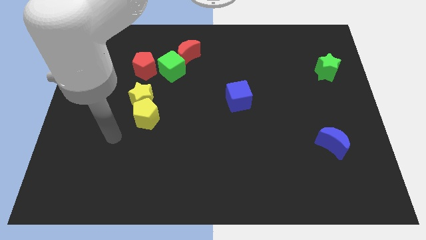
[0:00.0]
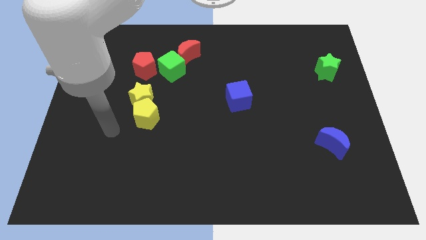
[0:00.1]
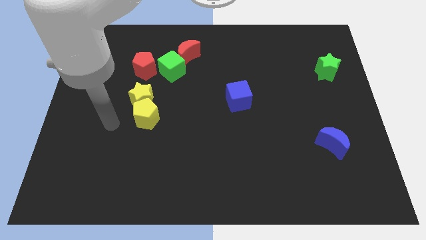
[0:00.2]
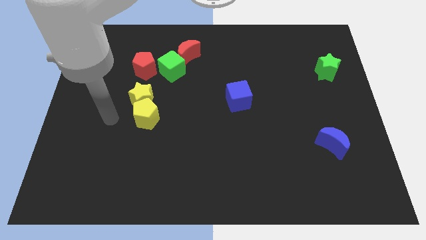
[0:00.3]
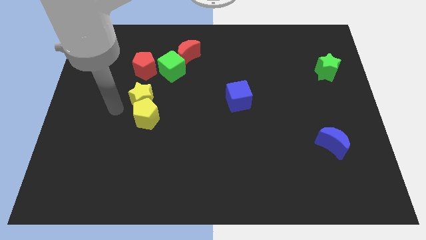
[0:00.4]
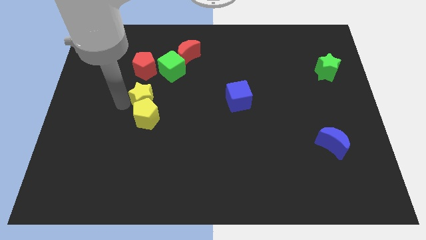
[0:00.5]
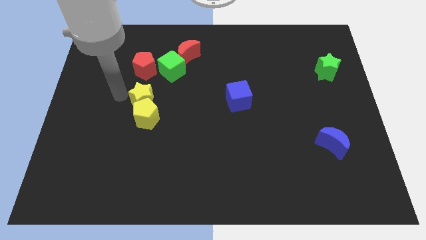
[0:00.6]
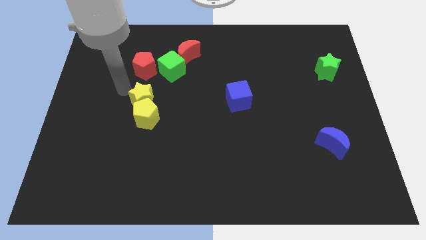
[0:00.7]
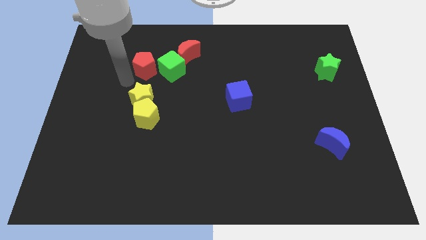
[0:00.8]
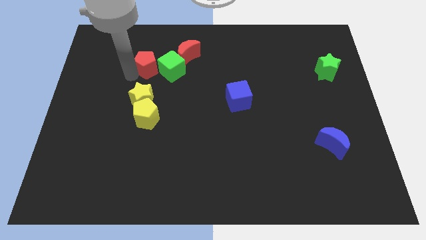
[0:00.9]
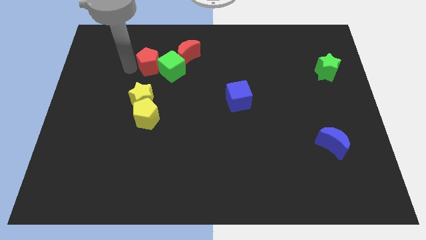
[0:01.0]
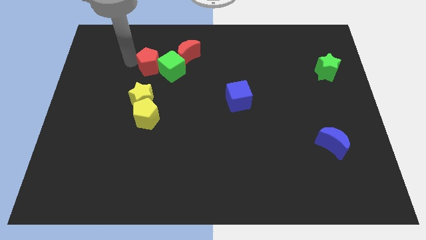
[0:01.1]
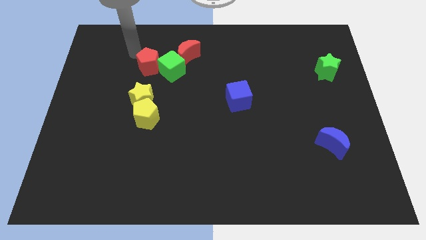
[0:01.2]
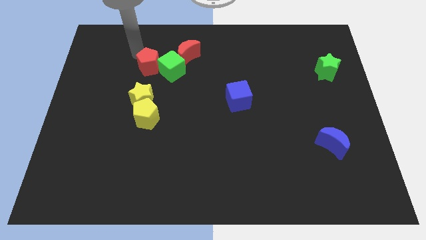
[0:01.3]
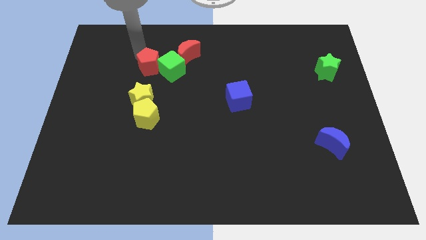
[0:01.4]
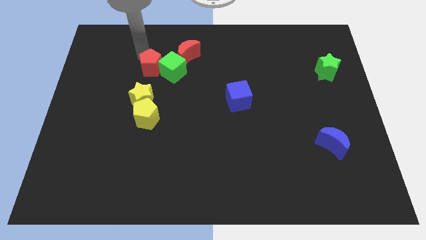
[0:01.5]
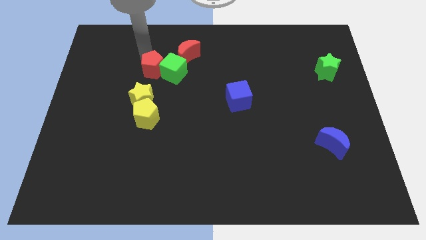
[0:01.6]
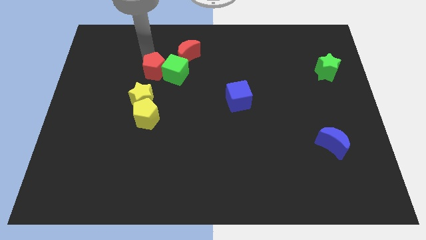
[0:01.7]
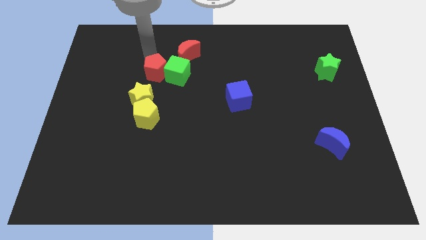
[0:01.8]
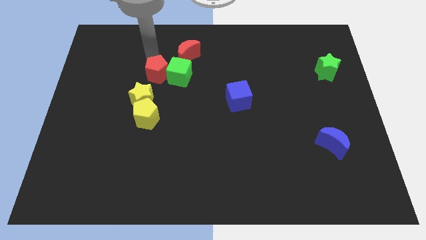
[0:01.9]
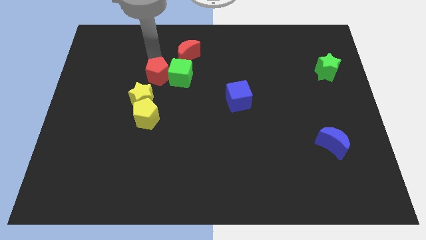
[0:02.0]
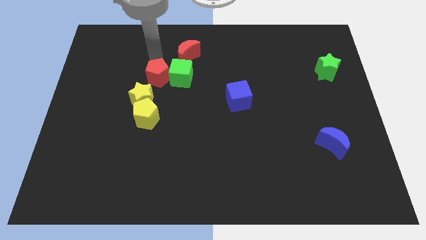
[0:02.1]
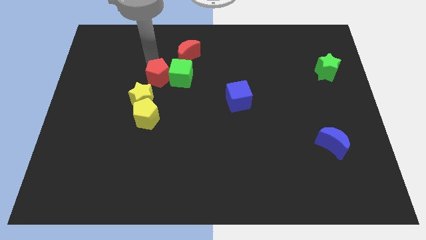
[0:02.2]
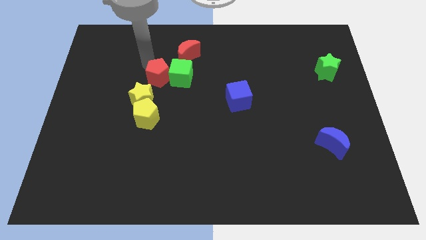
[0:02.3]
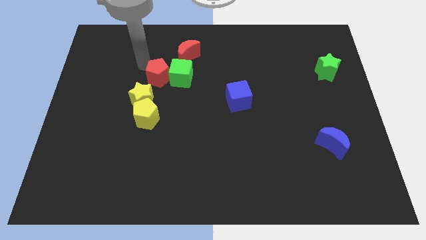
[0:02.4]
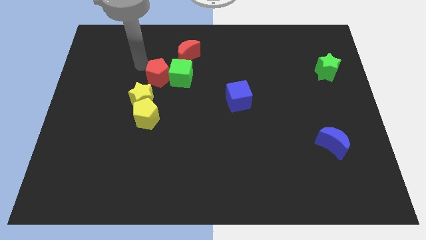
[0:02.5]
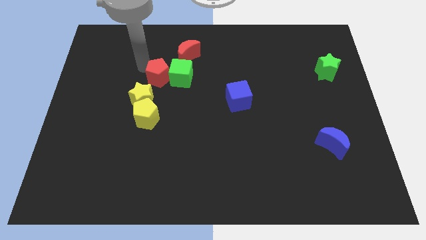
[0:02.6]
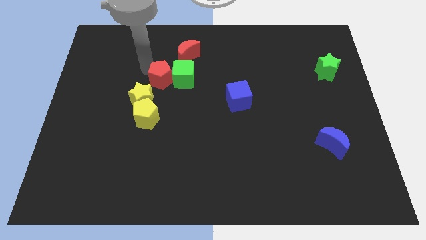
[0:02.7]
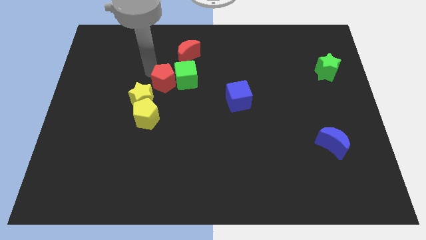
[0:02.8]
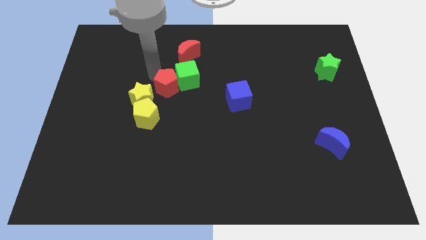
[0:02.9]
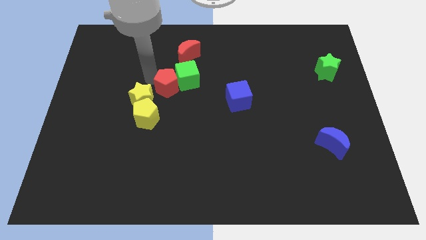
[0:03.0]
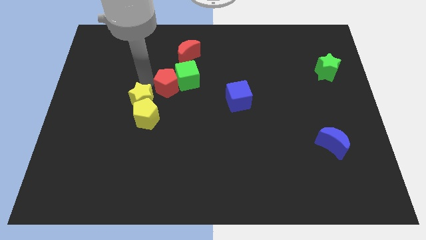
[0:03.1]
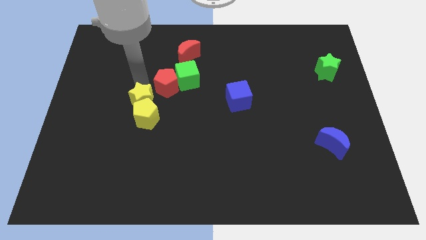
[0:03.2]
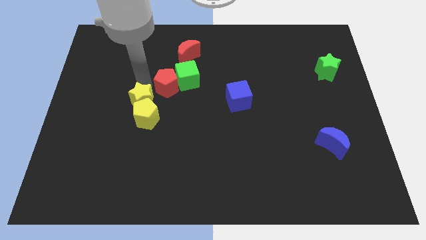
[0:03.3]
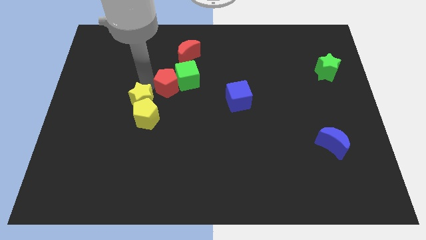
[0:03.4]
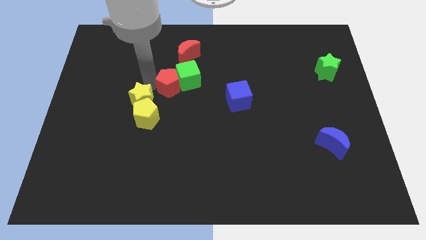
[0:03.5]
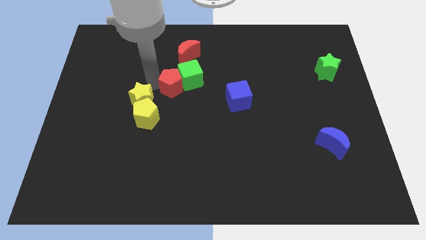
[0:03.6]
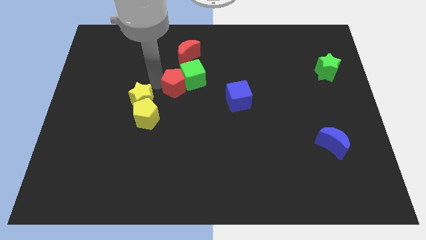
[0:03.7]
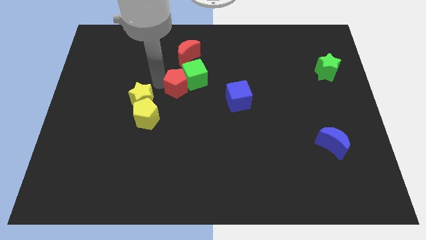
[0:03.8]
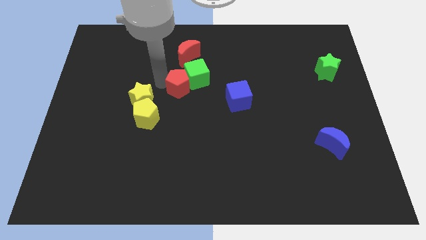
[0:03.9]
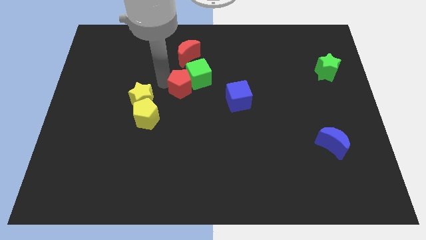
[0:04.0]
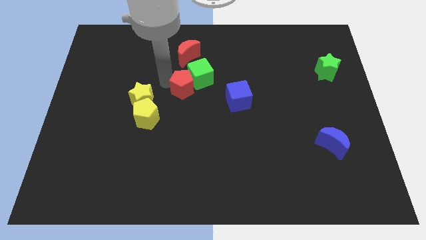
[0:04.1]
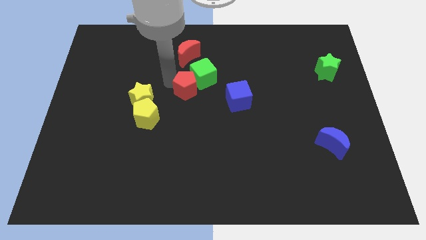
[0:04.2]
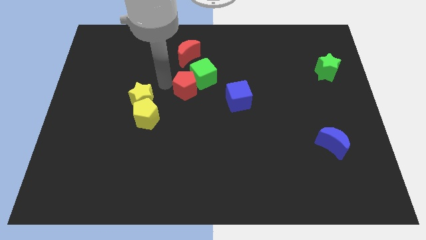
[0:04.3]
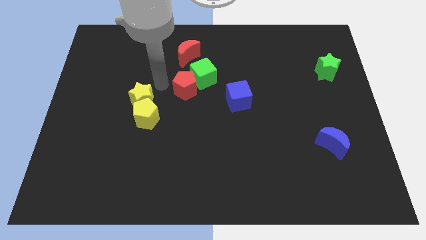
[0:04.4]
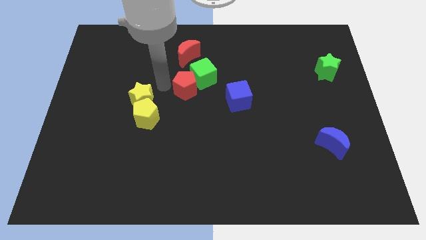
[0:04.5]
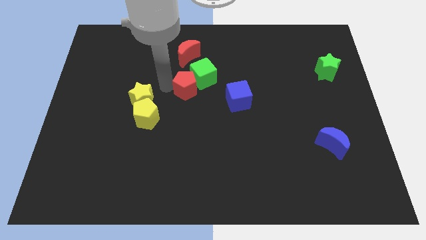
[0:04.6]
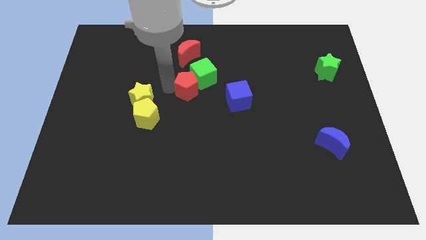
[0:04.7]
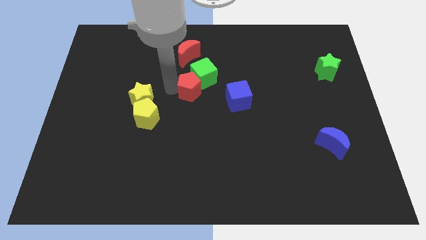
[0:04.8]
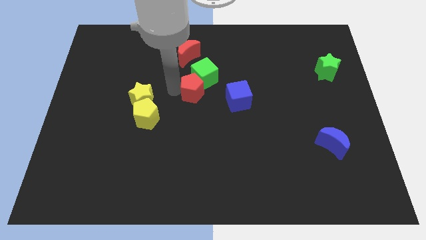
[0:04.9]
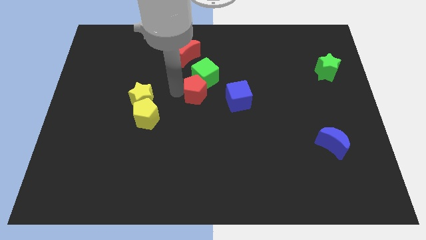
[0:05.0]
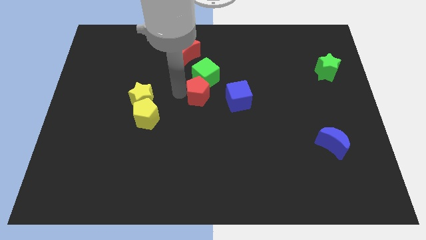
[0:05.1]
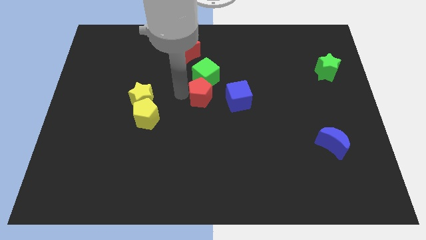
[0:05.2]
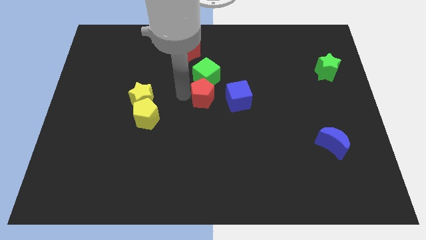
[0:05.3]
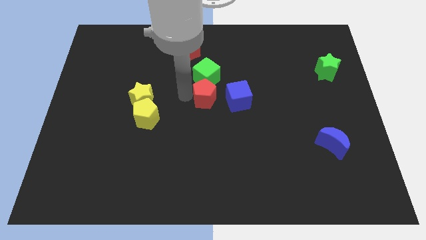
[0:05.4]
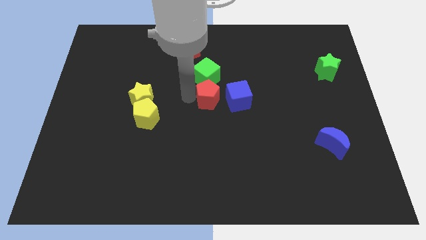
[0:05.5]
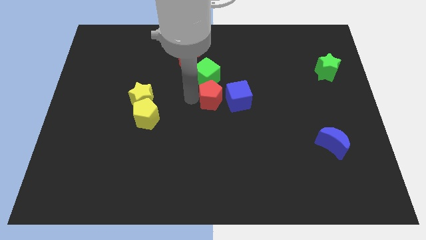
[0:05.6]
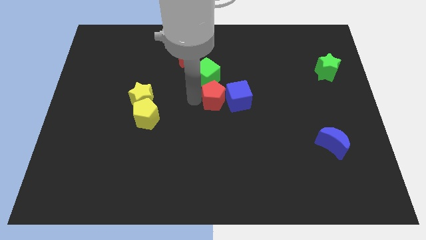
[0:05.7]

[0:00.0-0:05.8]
move the red pentagon close to the blue cube

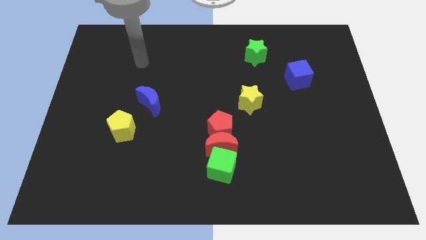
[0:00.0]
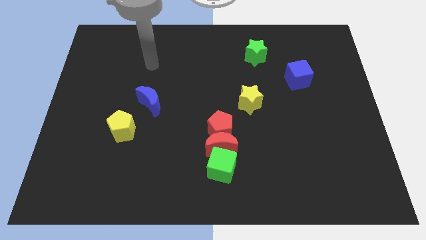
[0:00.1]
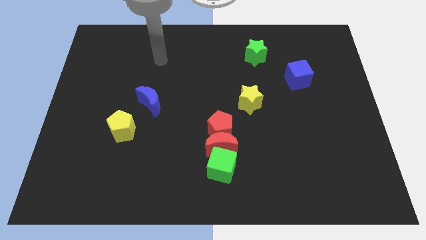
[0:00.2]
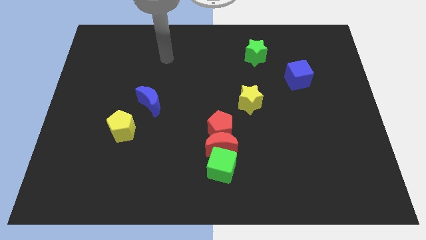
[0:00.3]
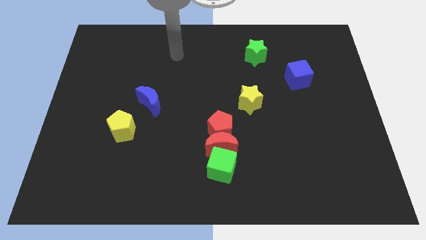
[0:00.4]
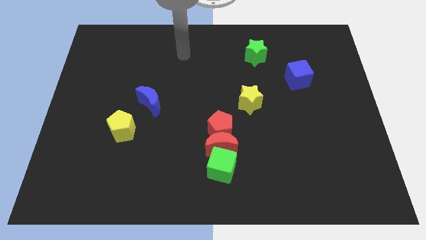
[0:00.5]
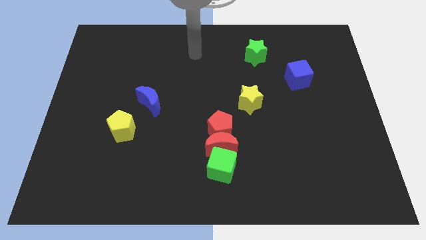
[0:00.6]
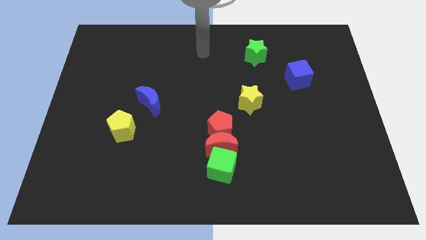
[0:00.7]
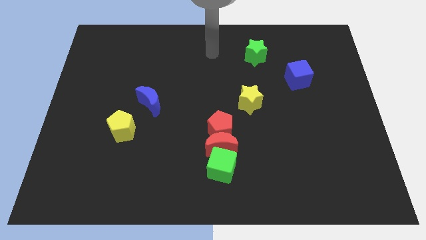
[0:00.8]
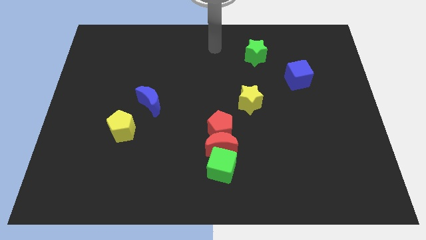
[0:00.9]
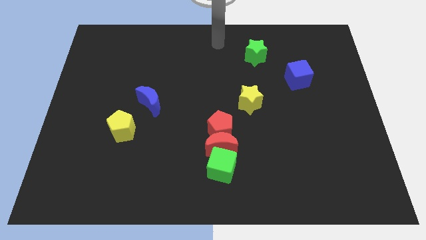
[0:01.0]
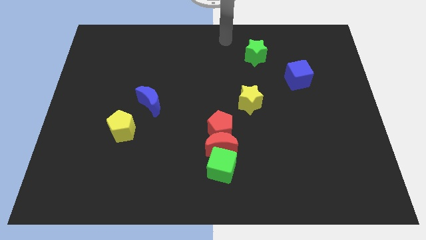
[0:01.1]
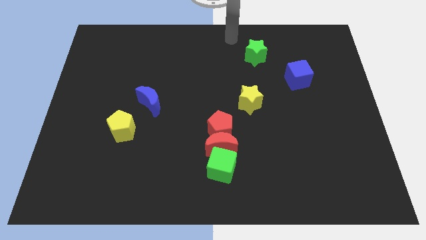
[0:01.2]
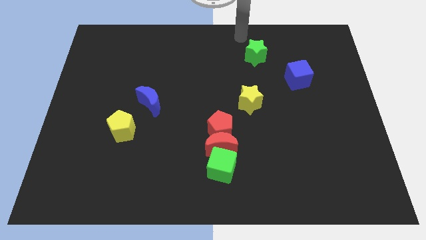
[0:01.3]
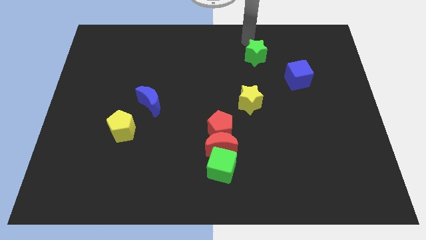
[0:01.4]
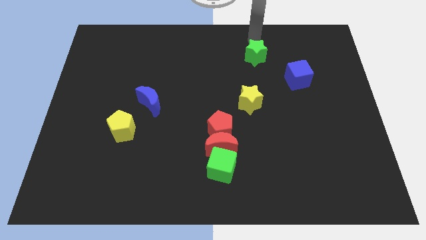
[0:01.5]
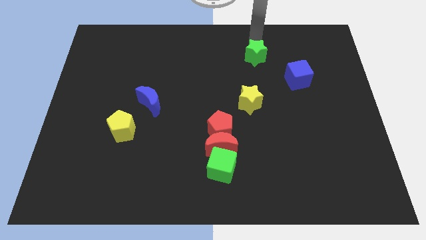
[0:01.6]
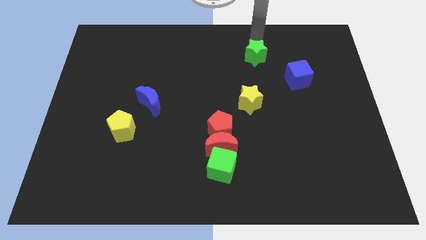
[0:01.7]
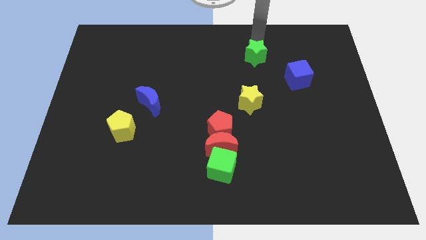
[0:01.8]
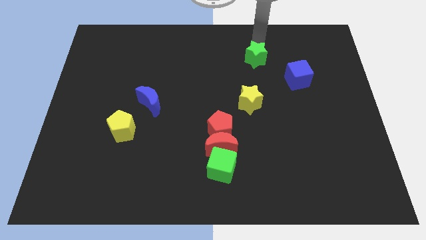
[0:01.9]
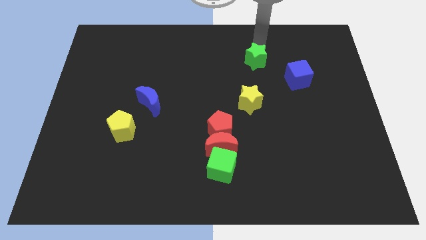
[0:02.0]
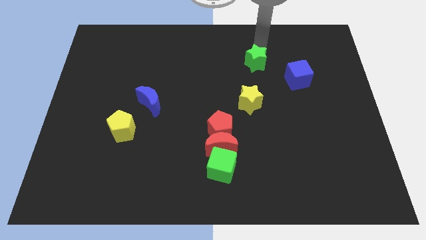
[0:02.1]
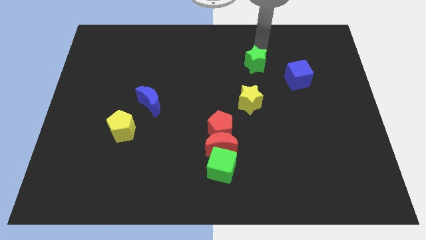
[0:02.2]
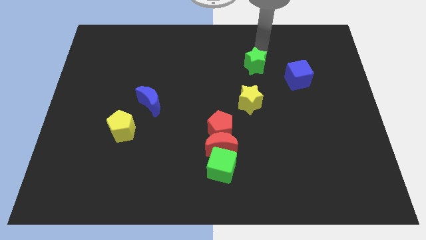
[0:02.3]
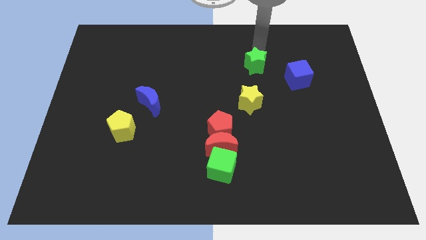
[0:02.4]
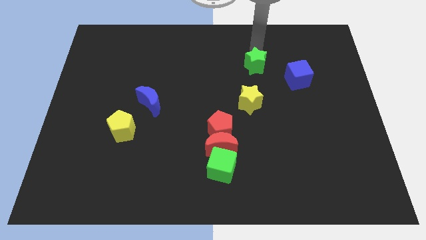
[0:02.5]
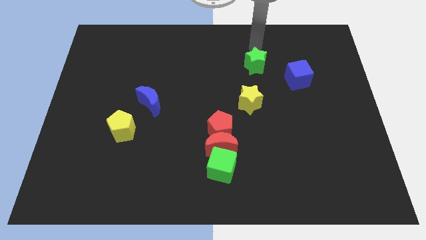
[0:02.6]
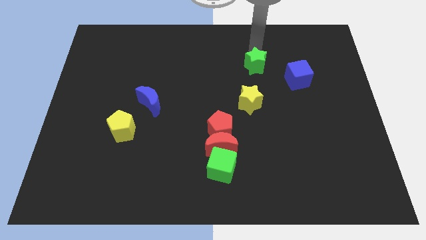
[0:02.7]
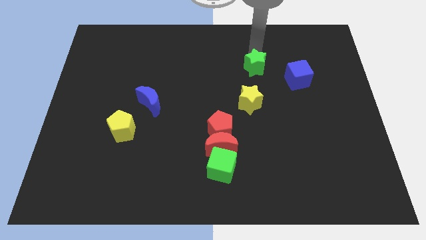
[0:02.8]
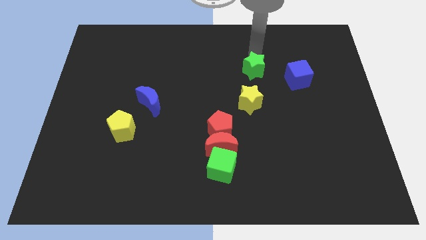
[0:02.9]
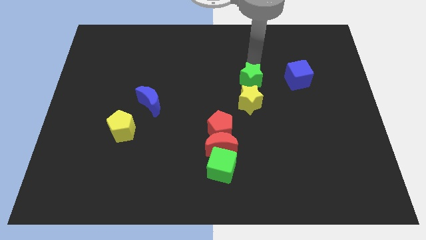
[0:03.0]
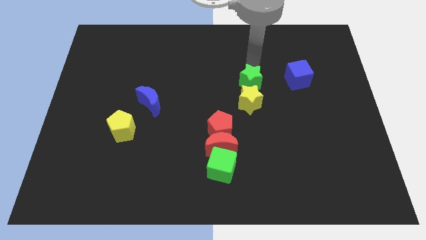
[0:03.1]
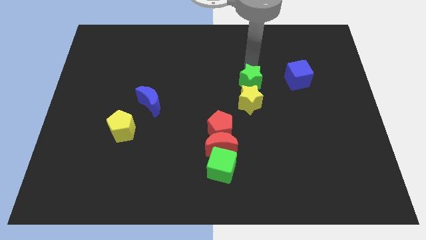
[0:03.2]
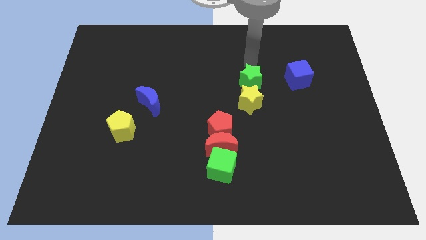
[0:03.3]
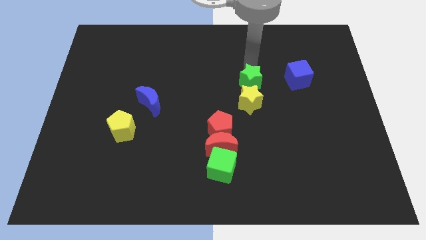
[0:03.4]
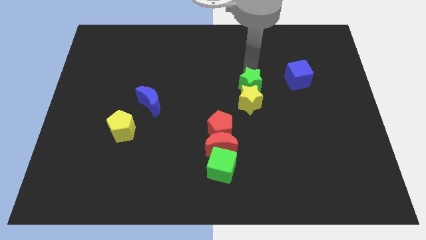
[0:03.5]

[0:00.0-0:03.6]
push the green star close to the yellow star
